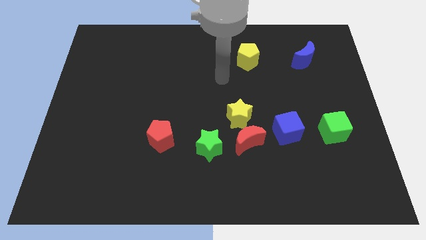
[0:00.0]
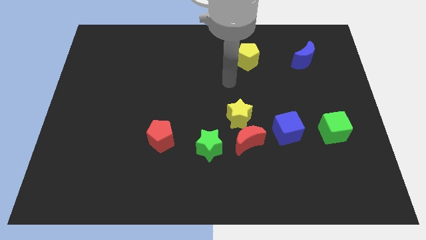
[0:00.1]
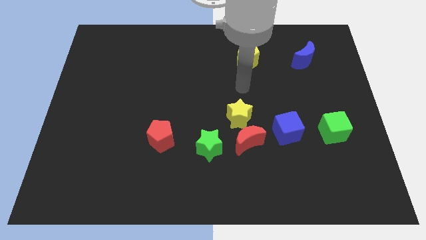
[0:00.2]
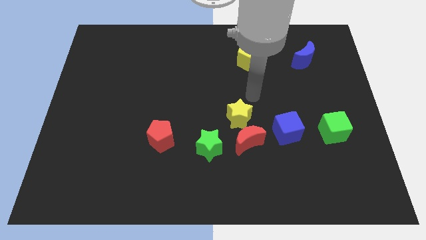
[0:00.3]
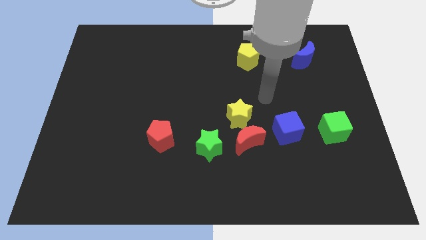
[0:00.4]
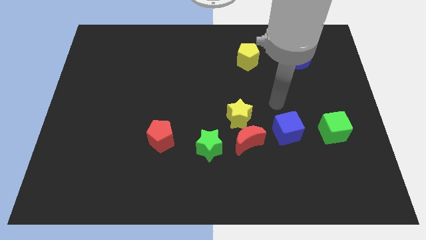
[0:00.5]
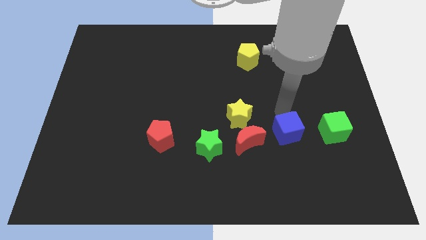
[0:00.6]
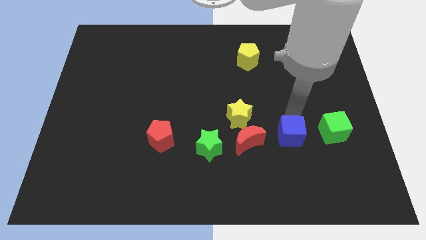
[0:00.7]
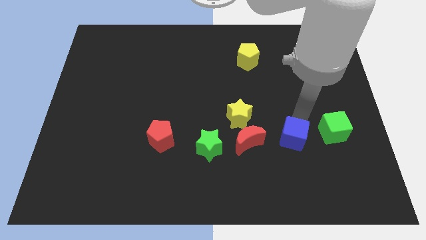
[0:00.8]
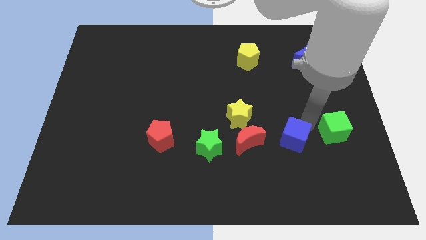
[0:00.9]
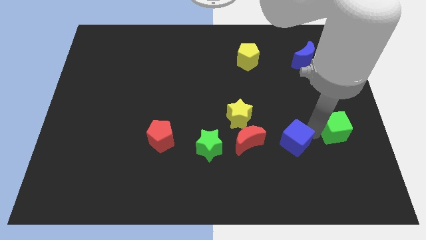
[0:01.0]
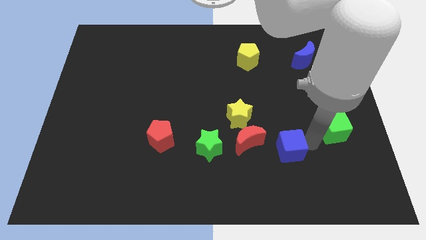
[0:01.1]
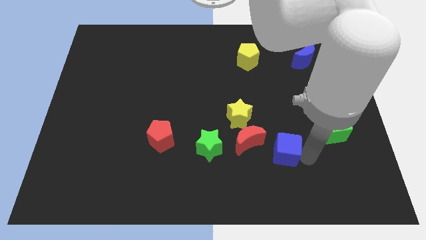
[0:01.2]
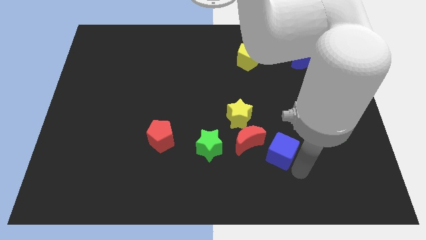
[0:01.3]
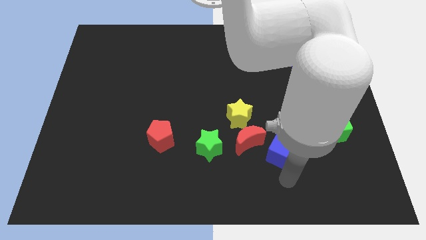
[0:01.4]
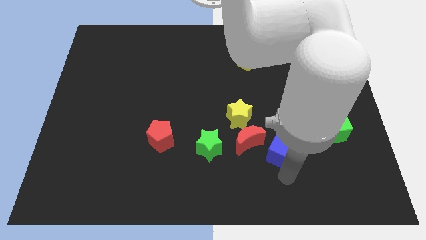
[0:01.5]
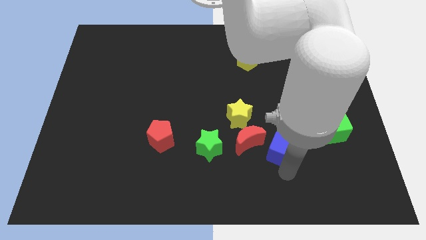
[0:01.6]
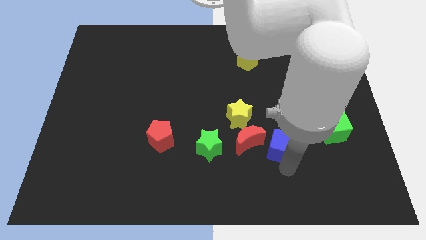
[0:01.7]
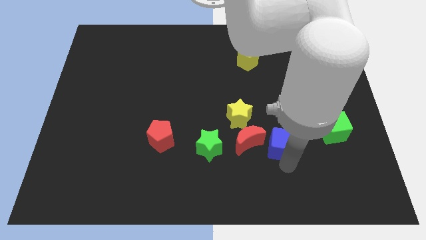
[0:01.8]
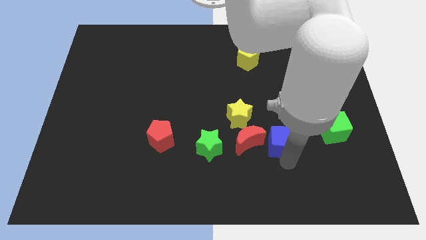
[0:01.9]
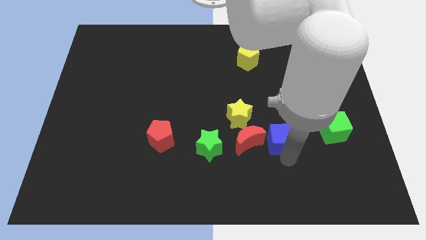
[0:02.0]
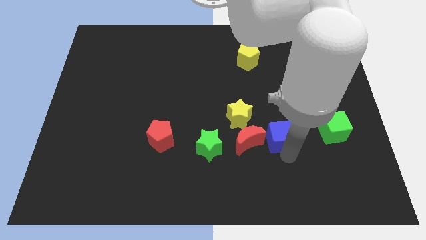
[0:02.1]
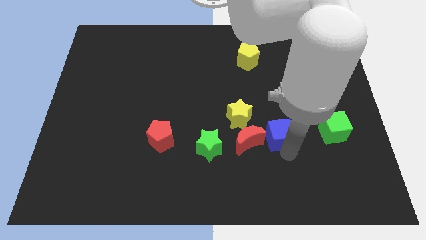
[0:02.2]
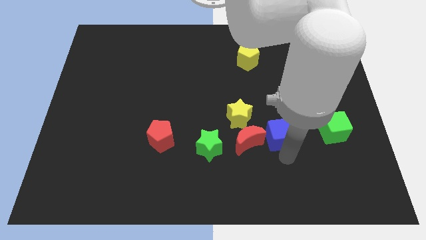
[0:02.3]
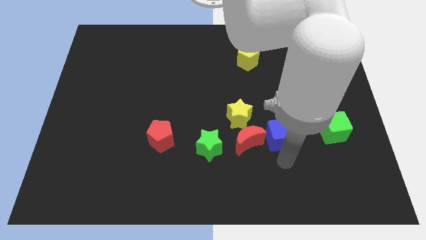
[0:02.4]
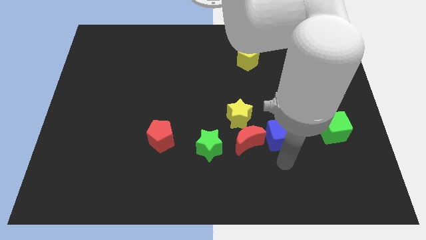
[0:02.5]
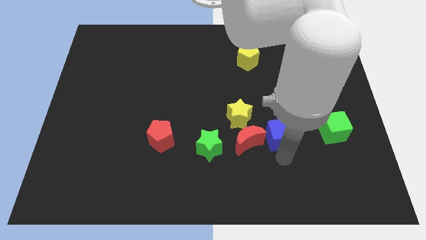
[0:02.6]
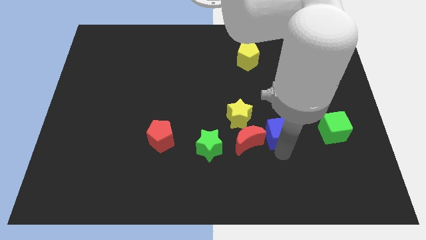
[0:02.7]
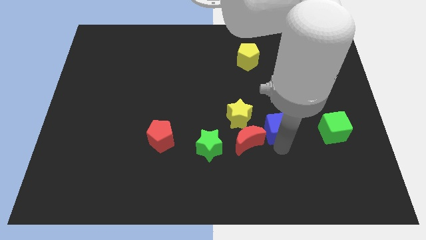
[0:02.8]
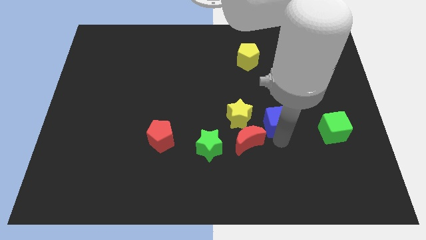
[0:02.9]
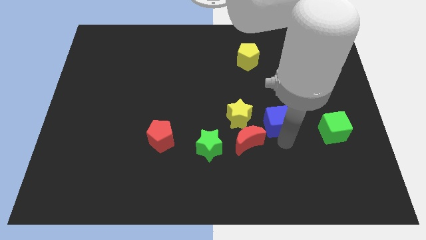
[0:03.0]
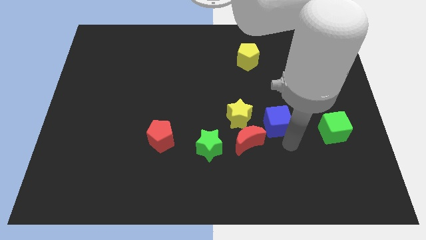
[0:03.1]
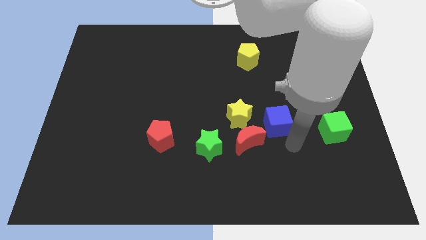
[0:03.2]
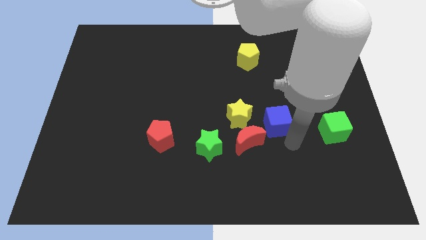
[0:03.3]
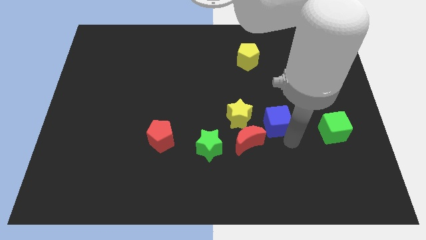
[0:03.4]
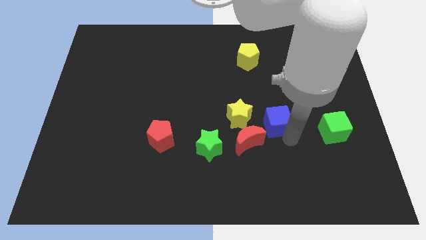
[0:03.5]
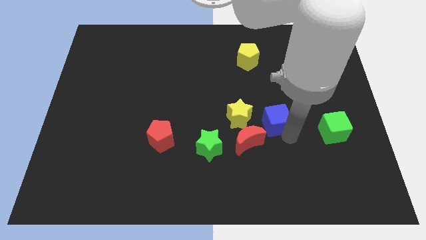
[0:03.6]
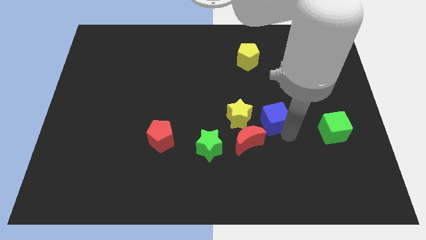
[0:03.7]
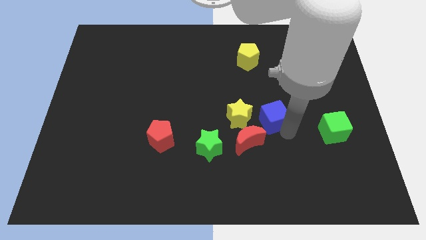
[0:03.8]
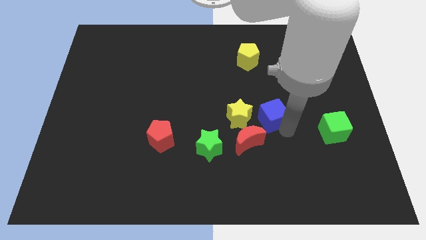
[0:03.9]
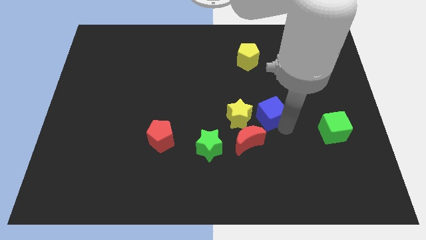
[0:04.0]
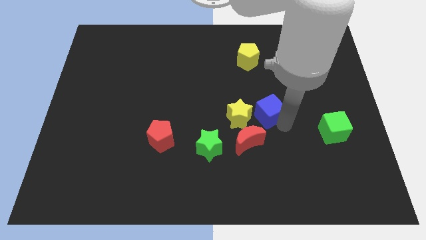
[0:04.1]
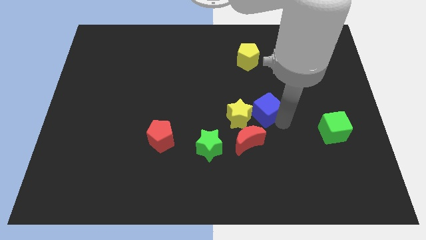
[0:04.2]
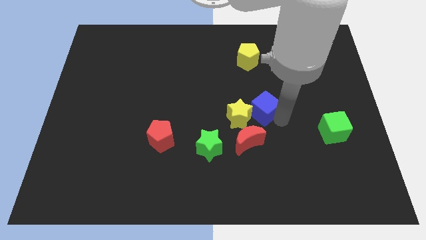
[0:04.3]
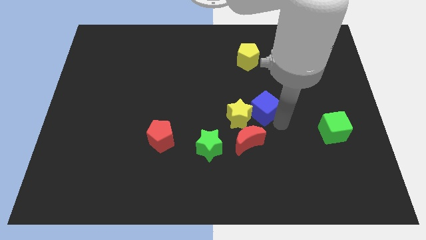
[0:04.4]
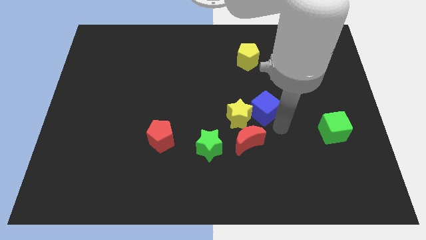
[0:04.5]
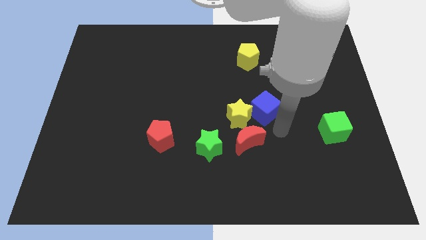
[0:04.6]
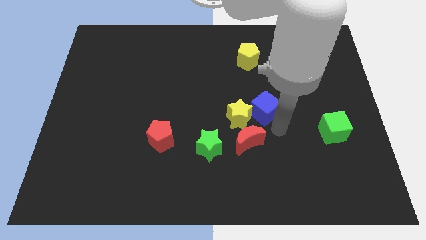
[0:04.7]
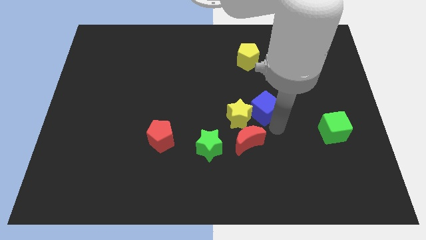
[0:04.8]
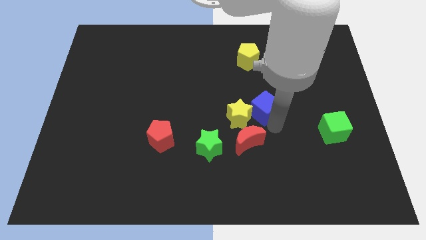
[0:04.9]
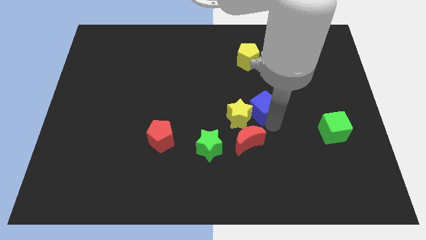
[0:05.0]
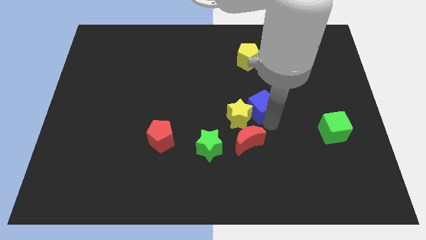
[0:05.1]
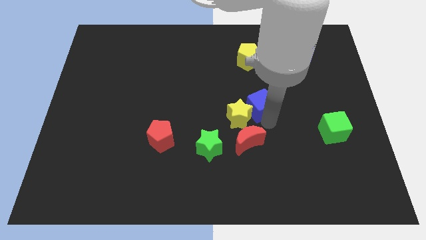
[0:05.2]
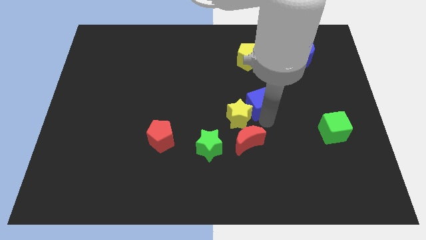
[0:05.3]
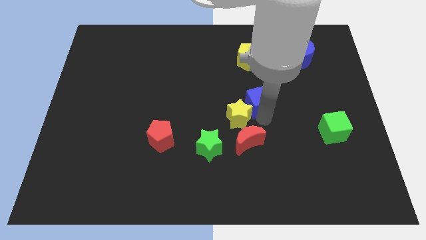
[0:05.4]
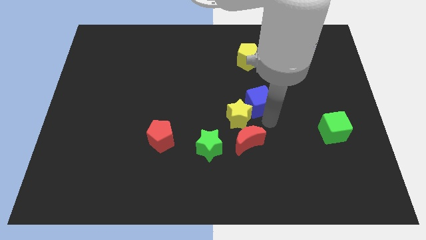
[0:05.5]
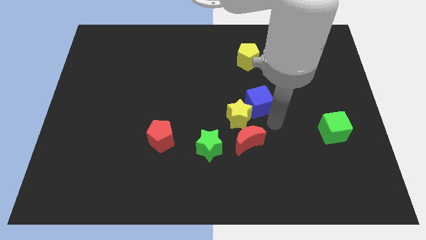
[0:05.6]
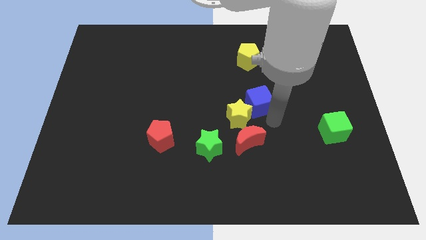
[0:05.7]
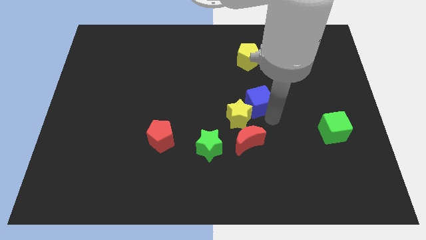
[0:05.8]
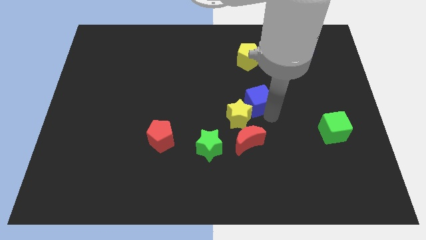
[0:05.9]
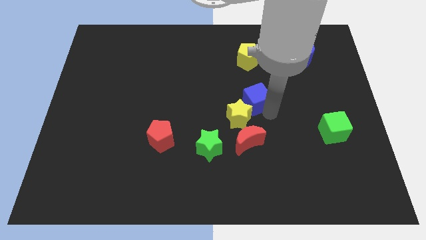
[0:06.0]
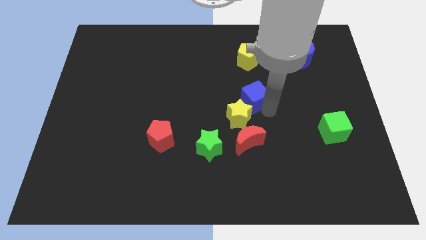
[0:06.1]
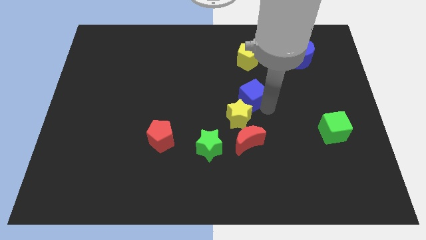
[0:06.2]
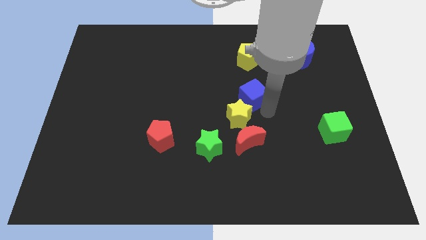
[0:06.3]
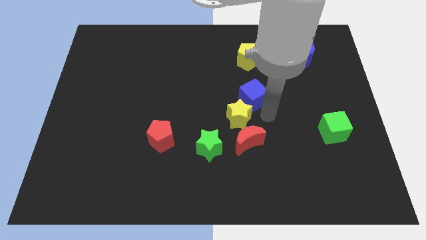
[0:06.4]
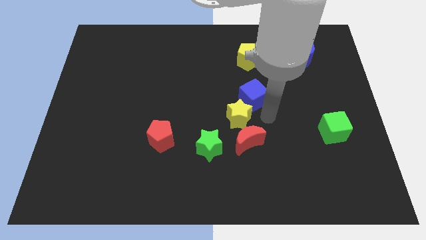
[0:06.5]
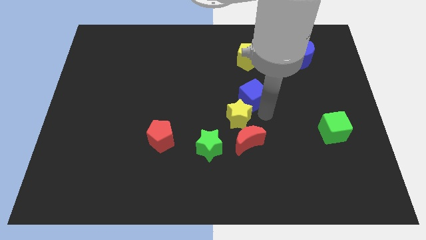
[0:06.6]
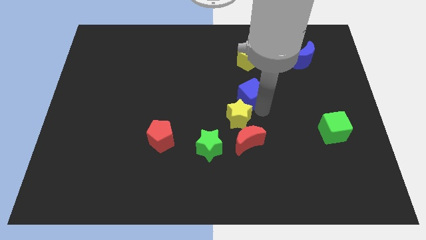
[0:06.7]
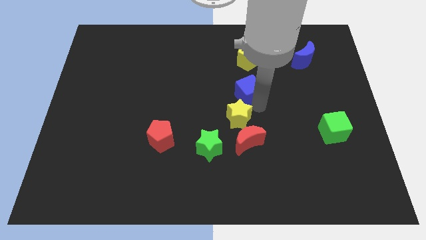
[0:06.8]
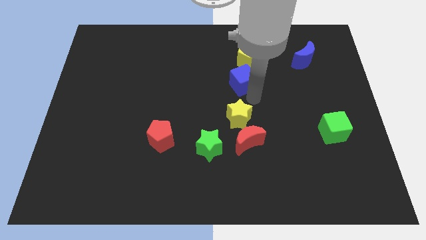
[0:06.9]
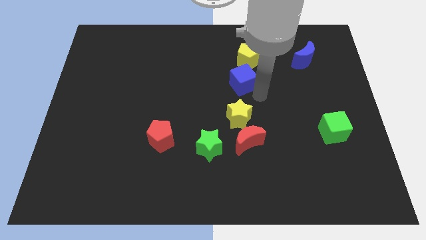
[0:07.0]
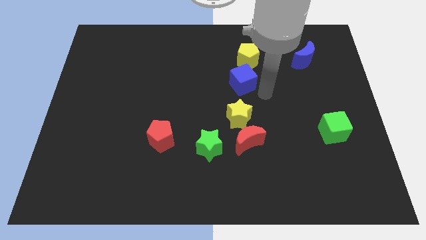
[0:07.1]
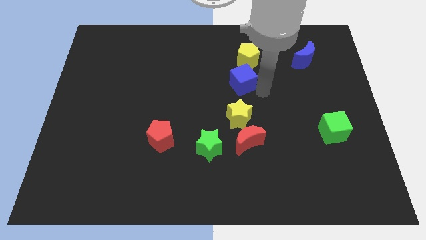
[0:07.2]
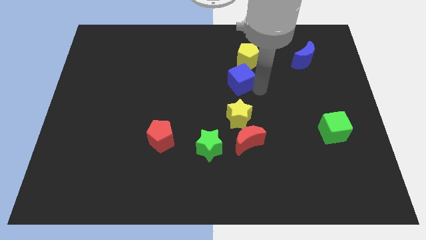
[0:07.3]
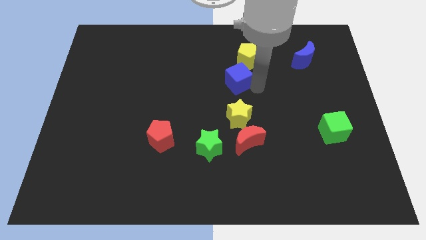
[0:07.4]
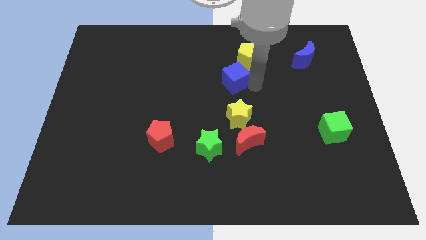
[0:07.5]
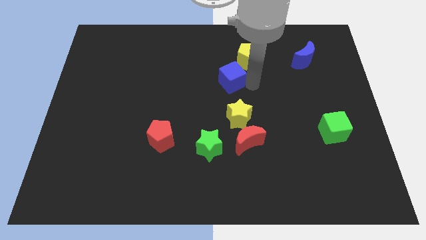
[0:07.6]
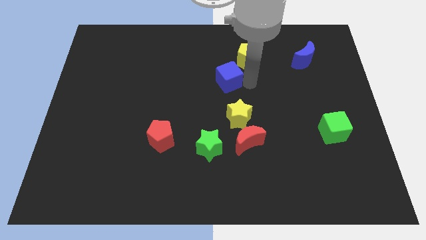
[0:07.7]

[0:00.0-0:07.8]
move the blue cube upwards and then to the left
